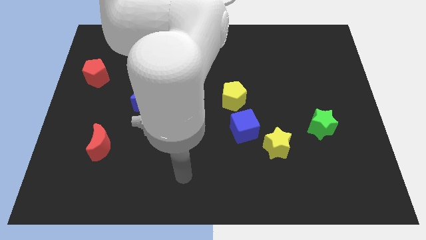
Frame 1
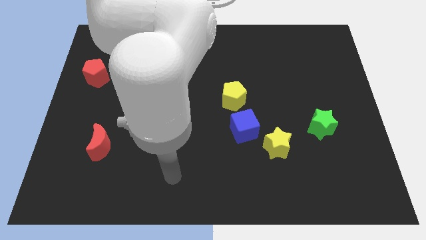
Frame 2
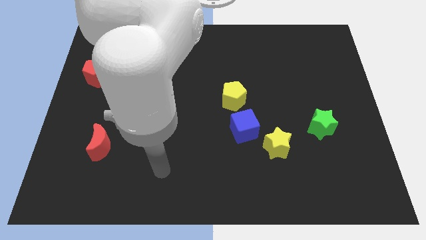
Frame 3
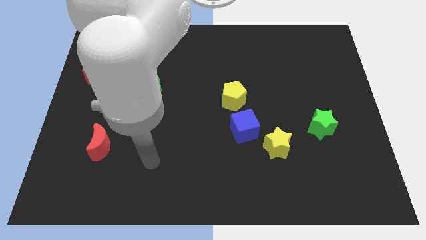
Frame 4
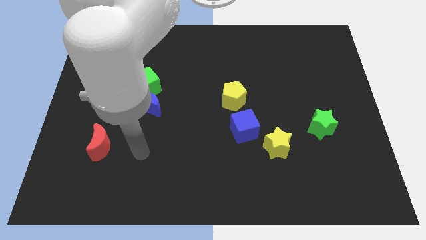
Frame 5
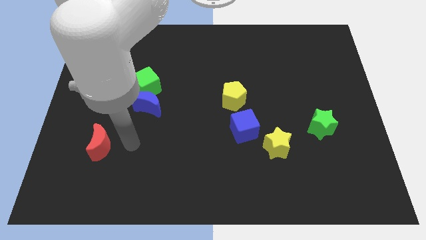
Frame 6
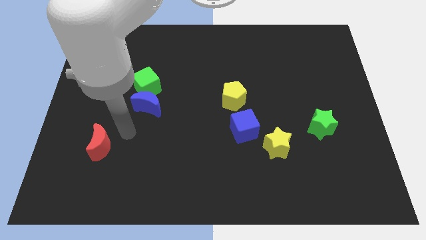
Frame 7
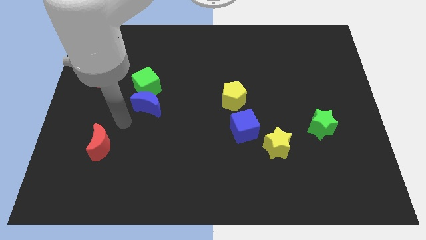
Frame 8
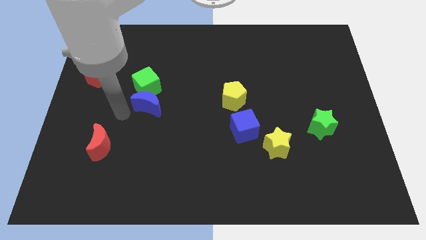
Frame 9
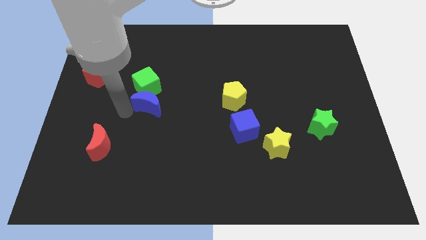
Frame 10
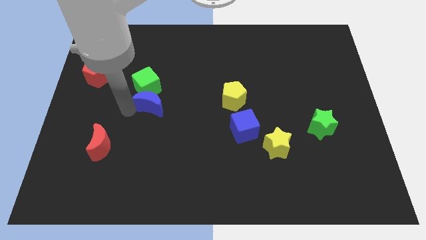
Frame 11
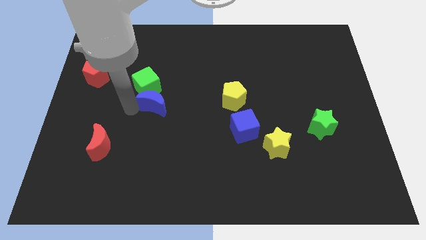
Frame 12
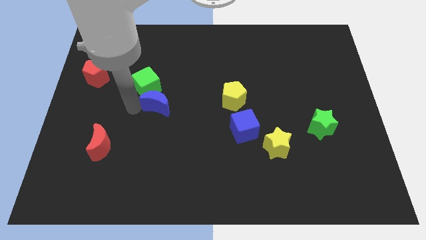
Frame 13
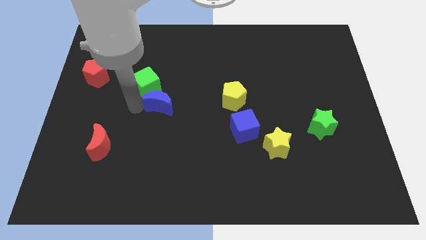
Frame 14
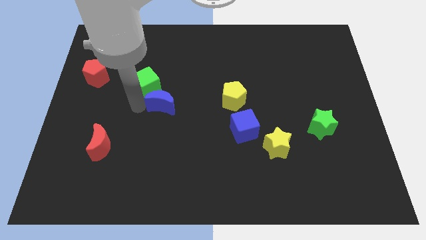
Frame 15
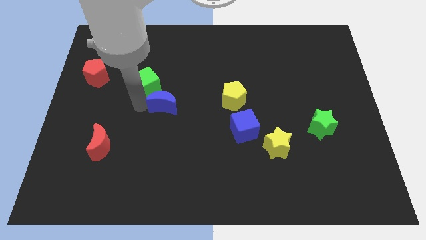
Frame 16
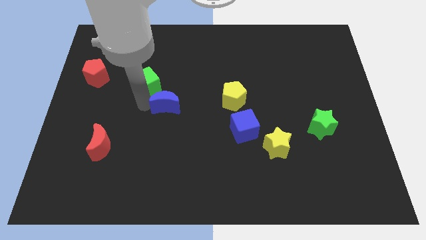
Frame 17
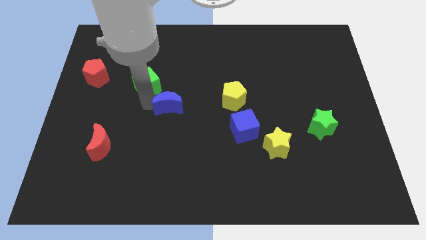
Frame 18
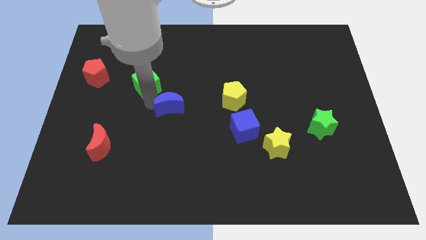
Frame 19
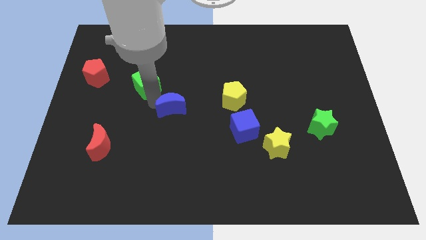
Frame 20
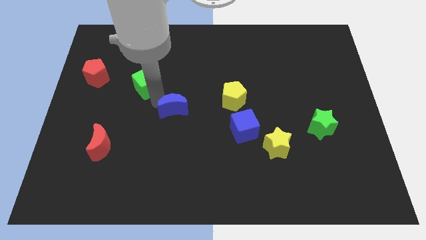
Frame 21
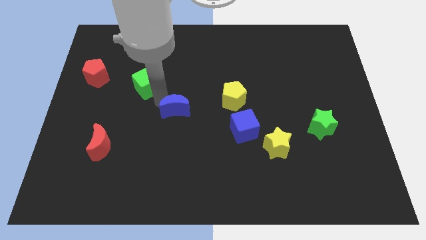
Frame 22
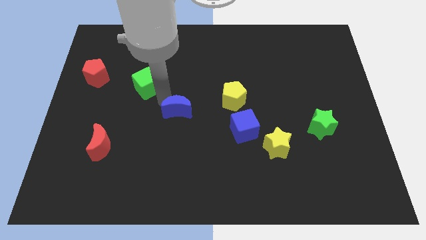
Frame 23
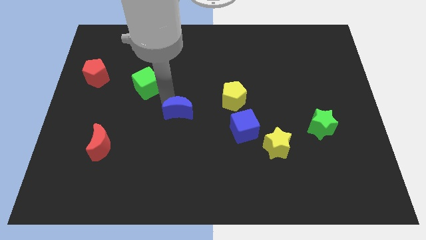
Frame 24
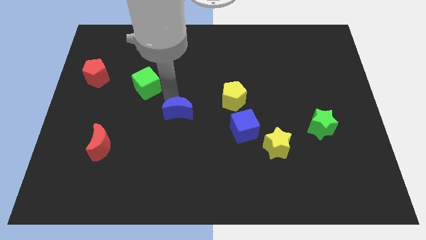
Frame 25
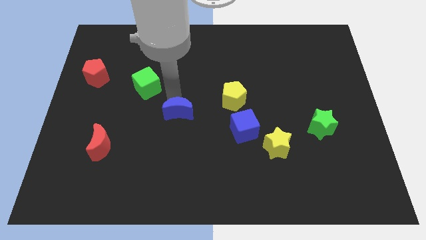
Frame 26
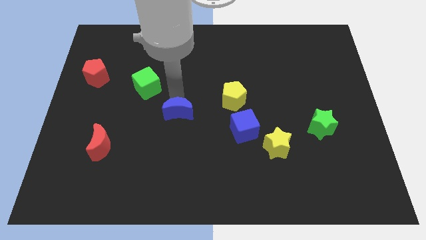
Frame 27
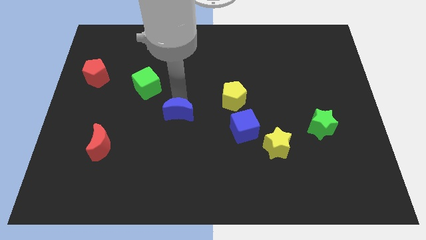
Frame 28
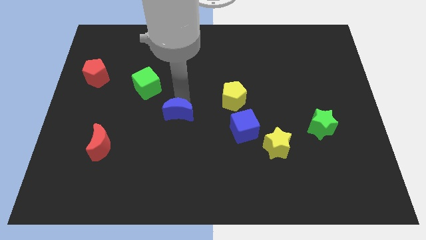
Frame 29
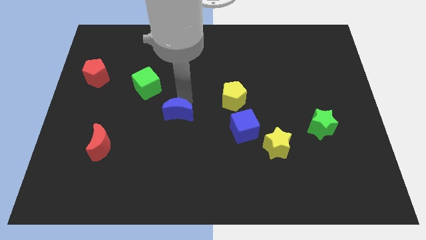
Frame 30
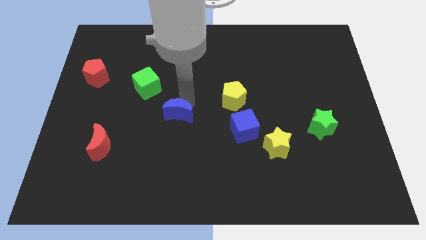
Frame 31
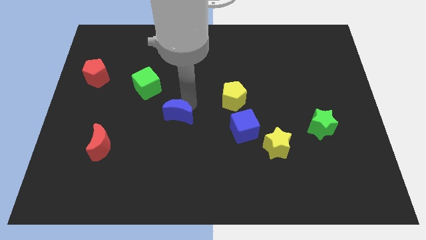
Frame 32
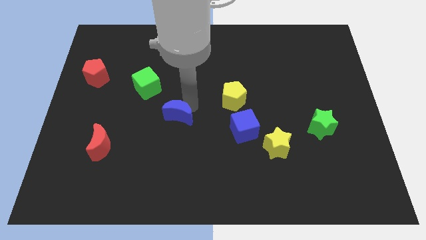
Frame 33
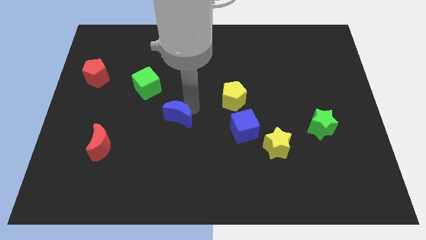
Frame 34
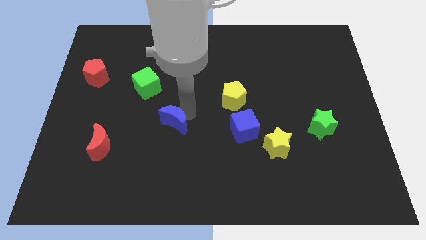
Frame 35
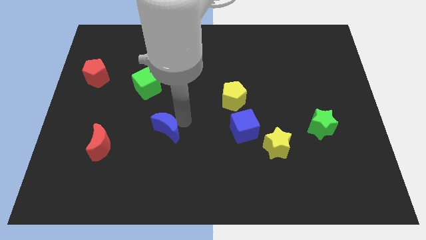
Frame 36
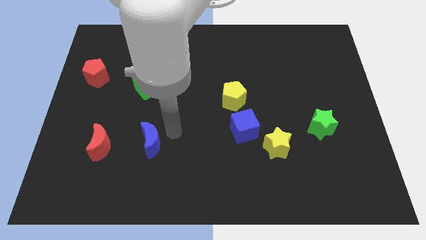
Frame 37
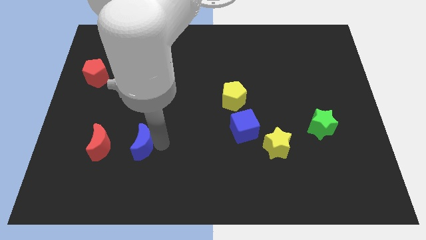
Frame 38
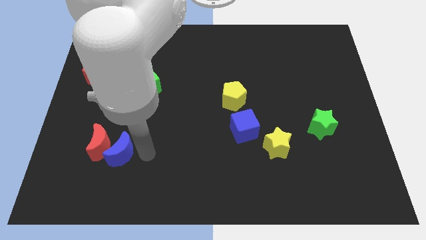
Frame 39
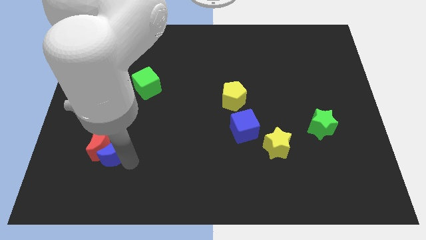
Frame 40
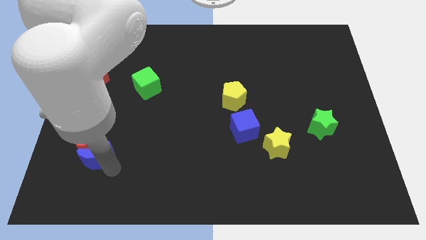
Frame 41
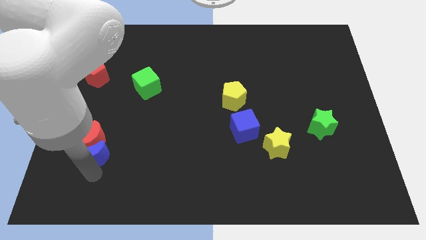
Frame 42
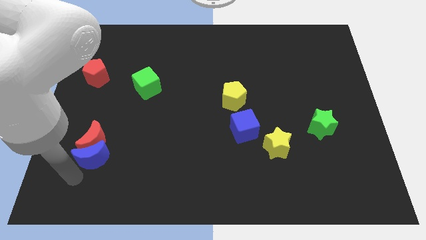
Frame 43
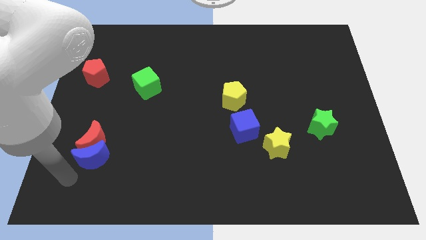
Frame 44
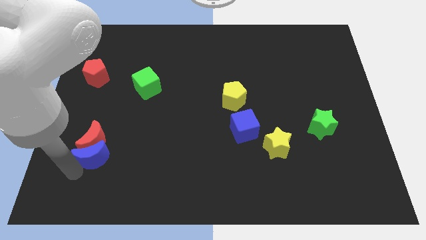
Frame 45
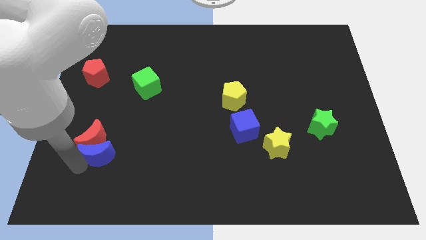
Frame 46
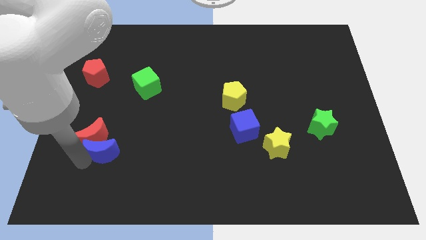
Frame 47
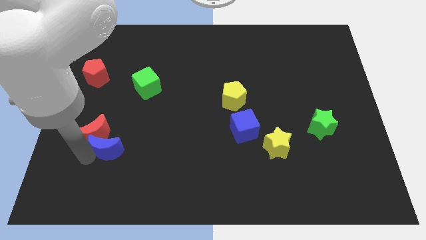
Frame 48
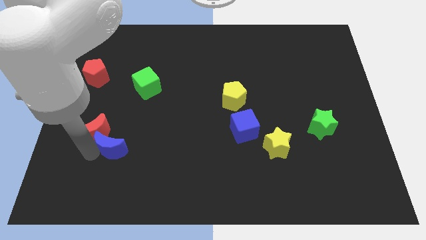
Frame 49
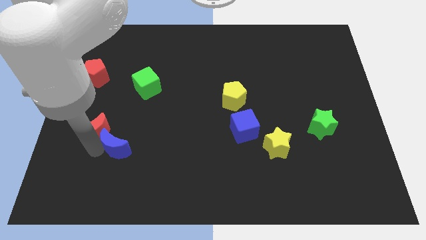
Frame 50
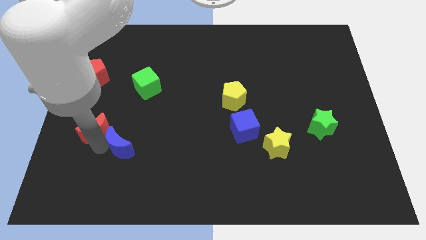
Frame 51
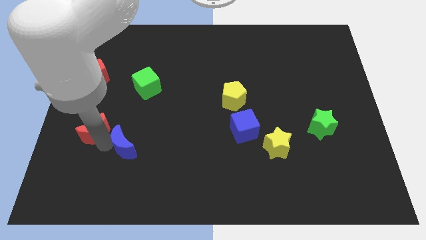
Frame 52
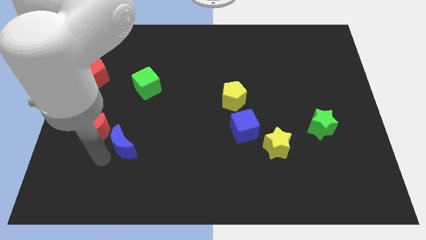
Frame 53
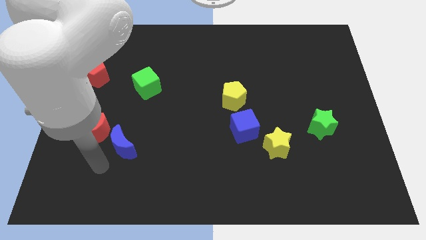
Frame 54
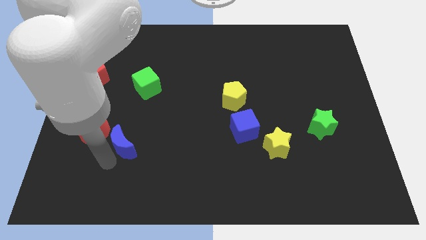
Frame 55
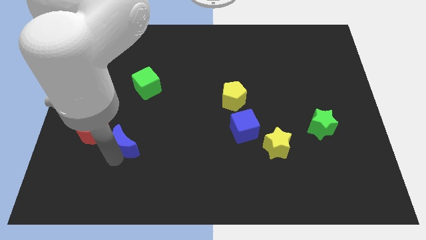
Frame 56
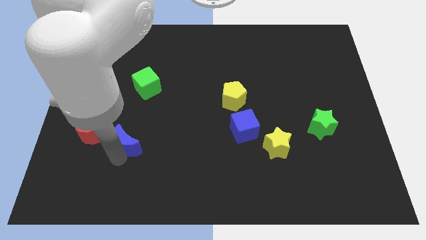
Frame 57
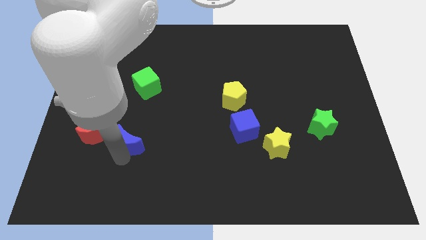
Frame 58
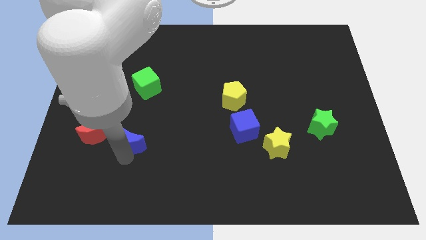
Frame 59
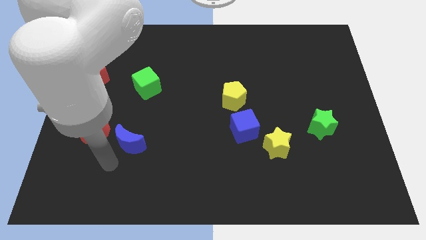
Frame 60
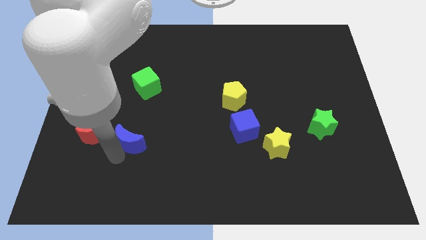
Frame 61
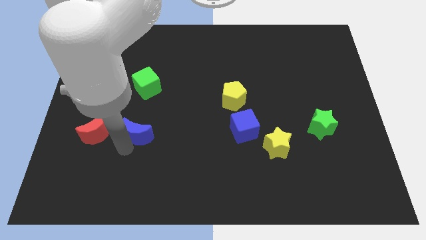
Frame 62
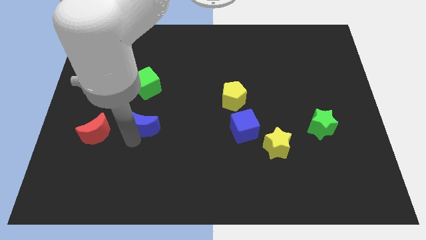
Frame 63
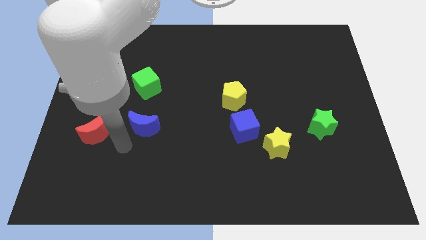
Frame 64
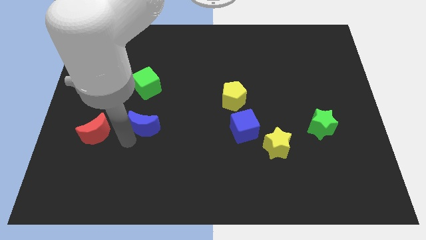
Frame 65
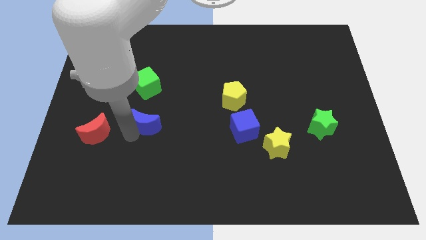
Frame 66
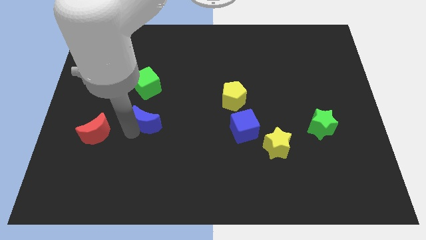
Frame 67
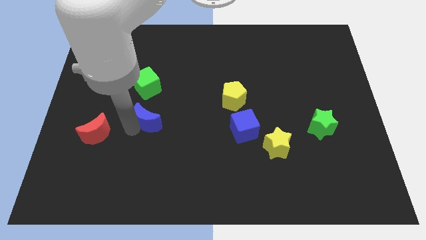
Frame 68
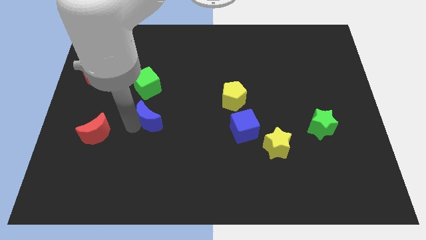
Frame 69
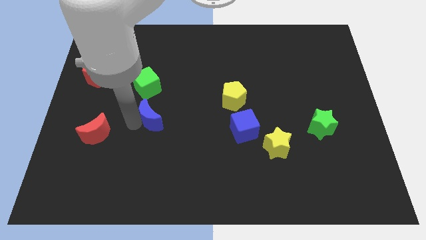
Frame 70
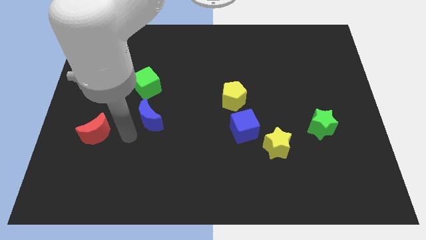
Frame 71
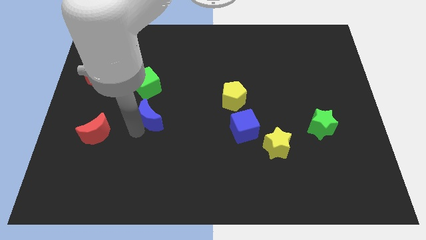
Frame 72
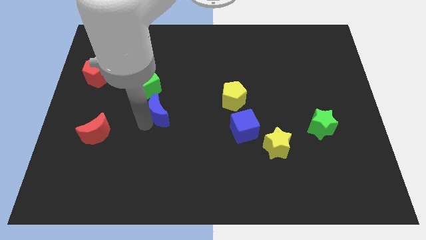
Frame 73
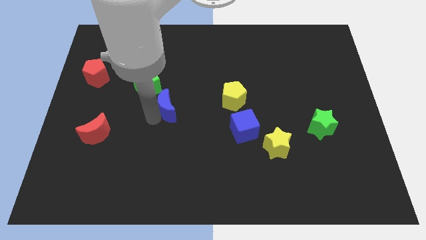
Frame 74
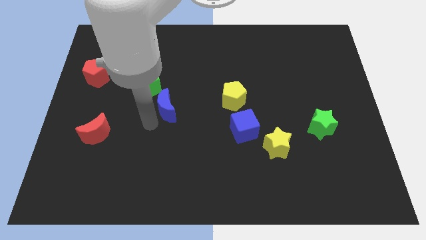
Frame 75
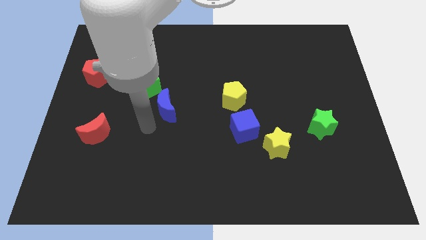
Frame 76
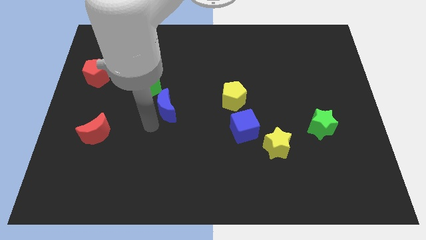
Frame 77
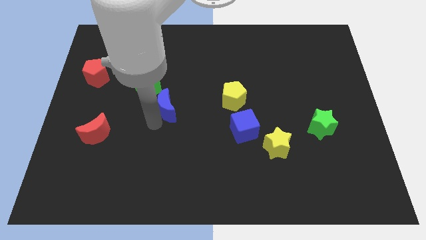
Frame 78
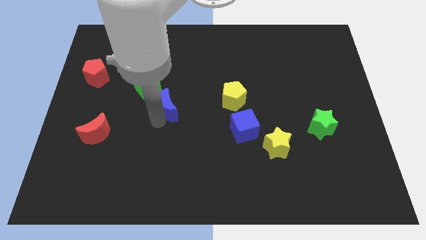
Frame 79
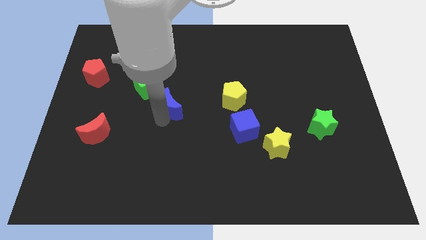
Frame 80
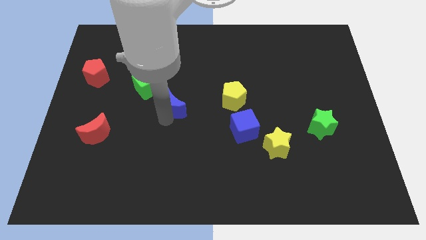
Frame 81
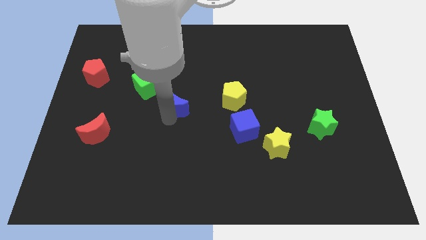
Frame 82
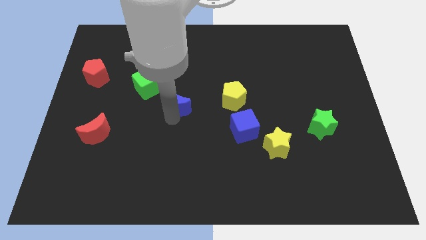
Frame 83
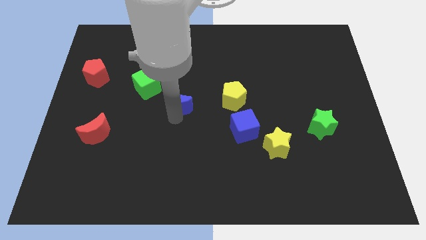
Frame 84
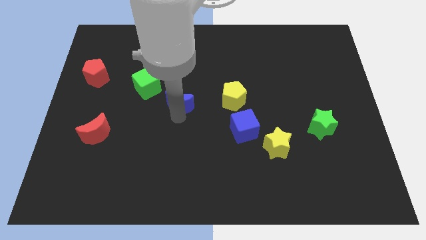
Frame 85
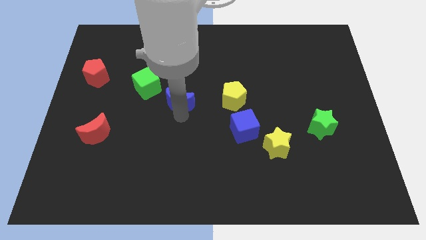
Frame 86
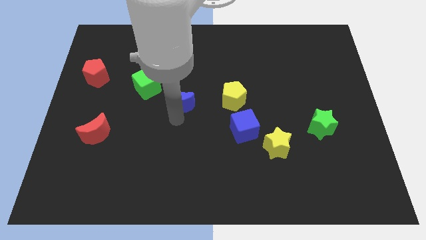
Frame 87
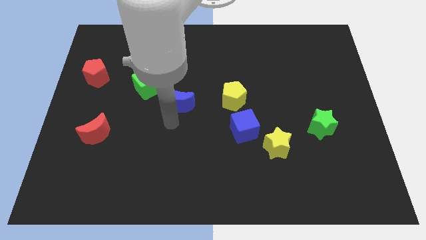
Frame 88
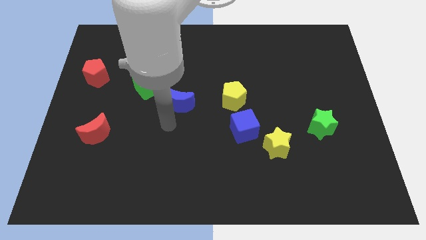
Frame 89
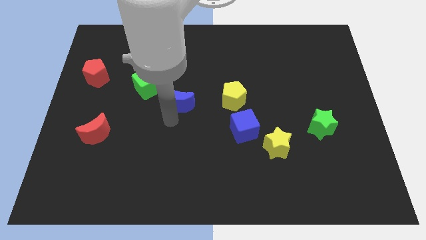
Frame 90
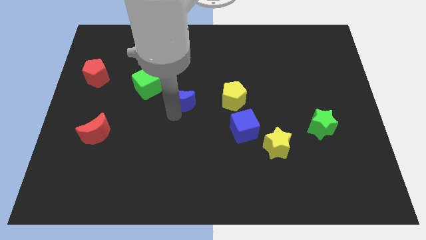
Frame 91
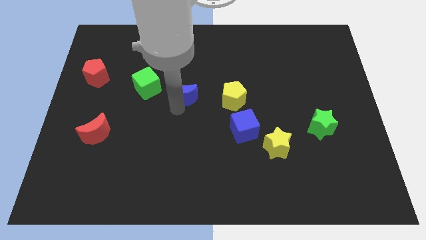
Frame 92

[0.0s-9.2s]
move the blue moon to the right of the green cube
